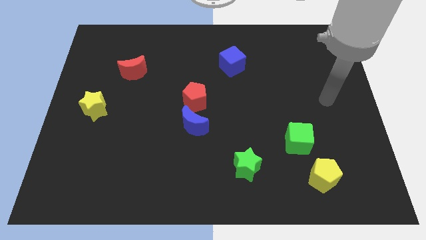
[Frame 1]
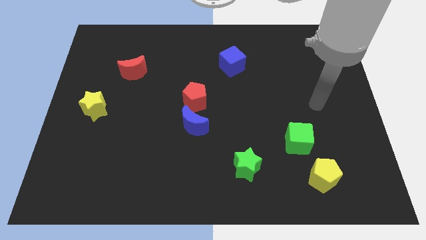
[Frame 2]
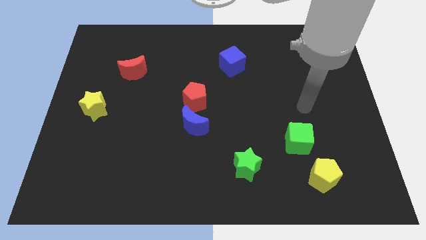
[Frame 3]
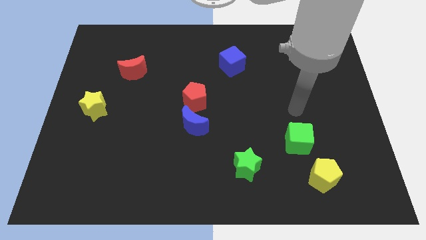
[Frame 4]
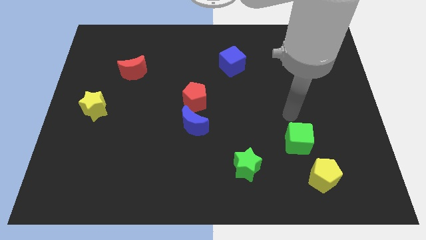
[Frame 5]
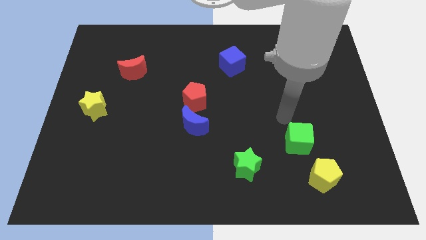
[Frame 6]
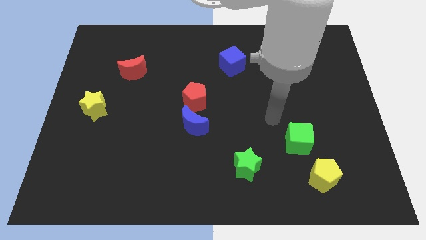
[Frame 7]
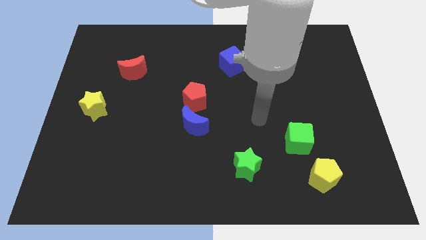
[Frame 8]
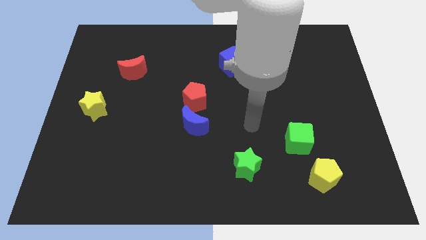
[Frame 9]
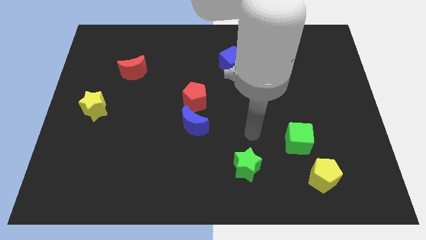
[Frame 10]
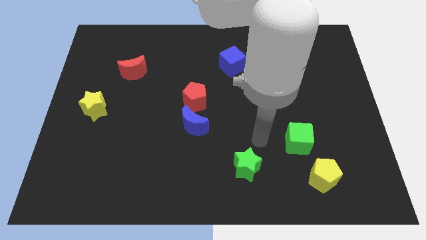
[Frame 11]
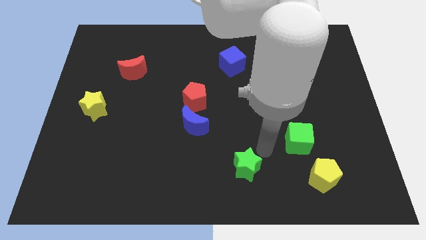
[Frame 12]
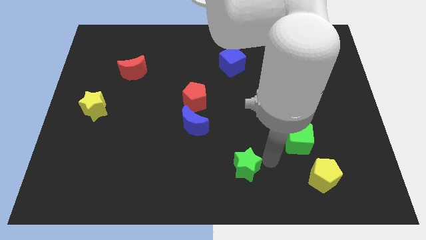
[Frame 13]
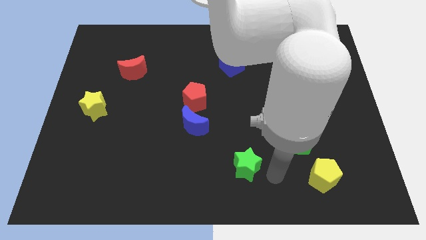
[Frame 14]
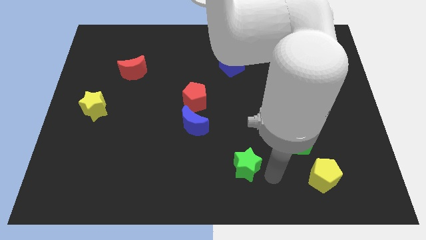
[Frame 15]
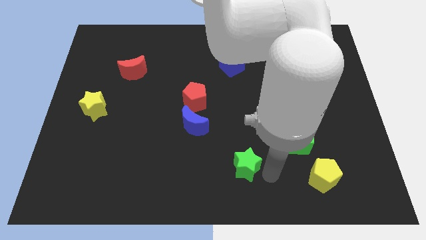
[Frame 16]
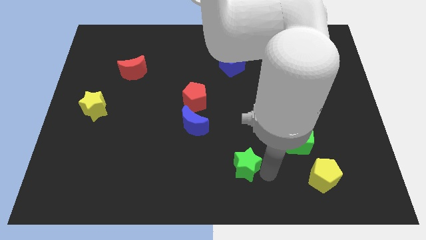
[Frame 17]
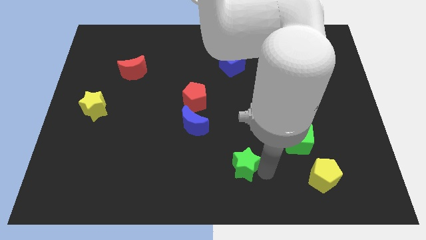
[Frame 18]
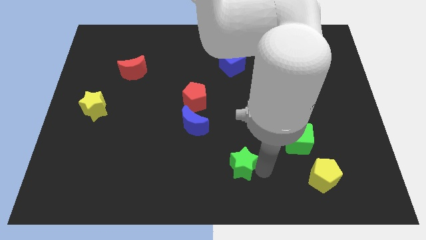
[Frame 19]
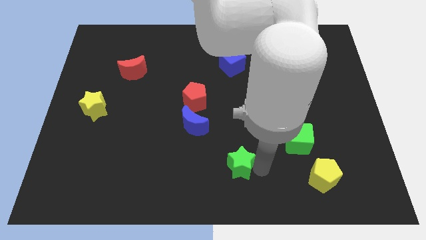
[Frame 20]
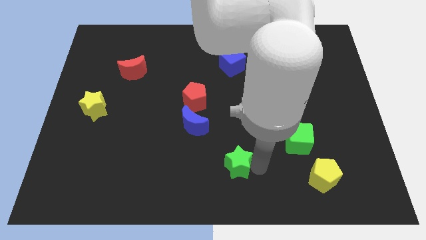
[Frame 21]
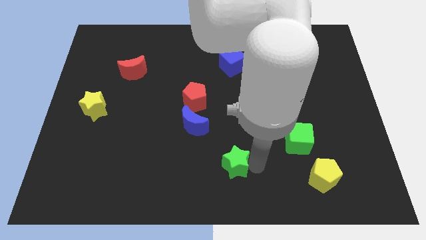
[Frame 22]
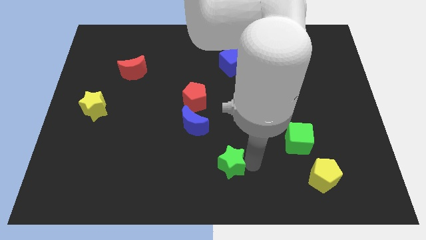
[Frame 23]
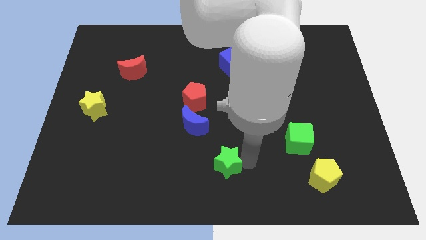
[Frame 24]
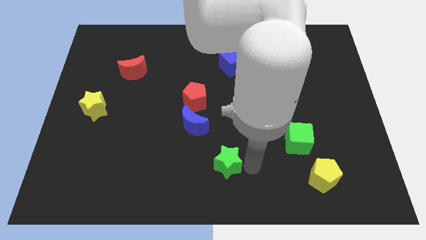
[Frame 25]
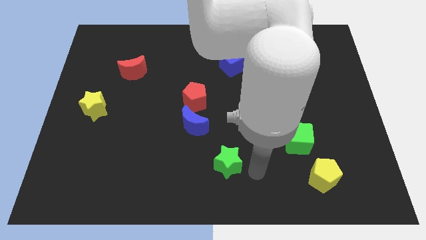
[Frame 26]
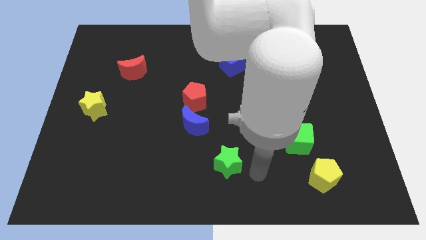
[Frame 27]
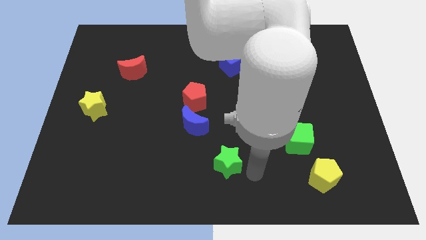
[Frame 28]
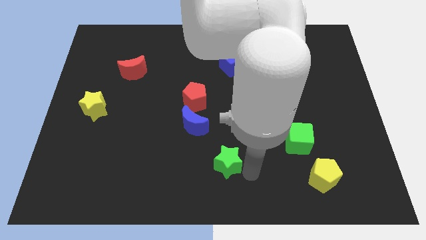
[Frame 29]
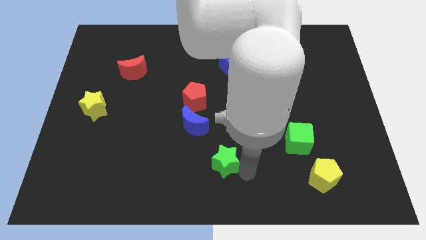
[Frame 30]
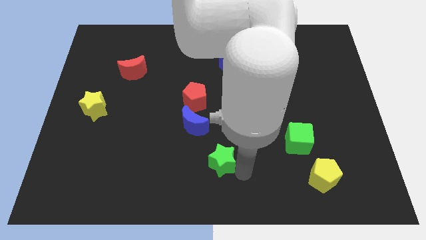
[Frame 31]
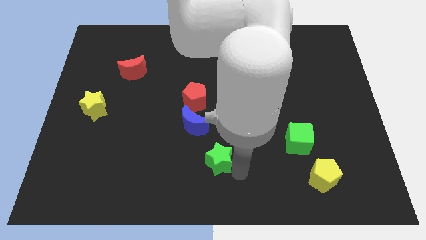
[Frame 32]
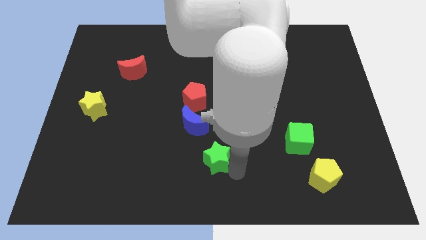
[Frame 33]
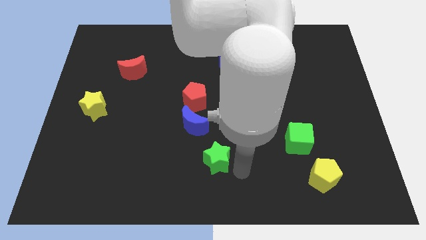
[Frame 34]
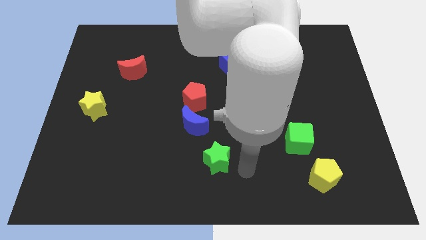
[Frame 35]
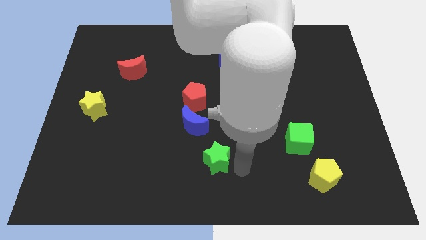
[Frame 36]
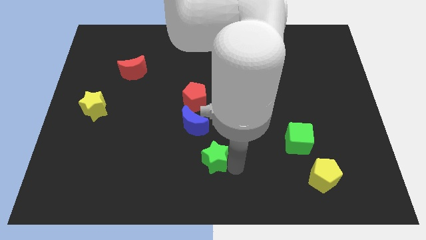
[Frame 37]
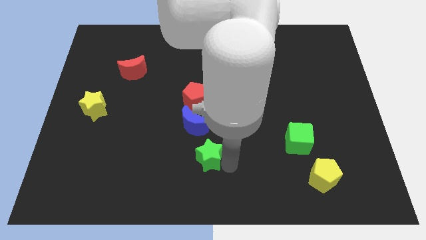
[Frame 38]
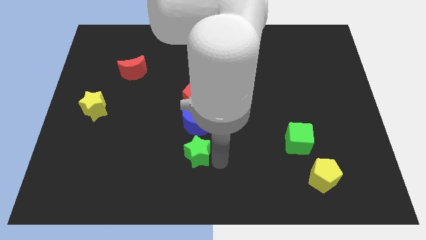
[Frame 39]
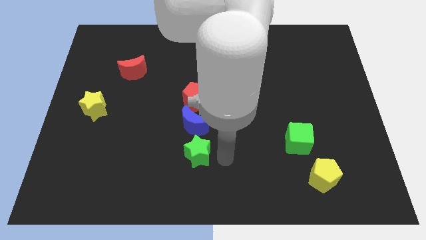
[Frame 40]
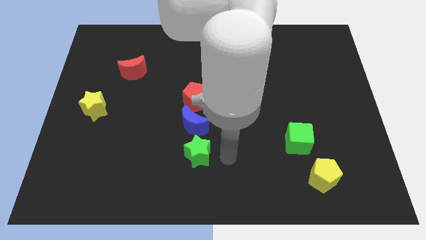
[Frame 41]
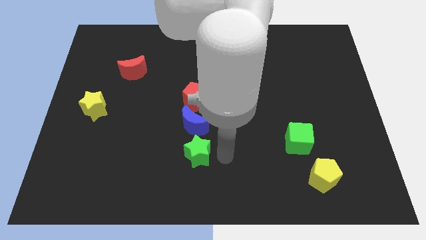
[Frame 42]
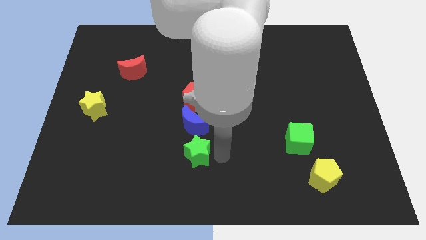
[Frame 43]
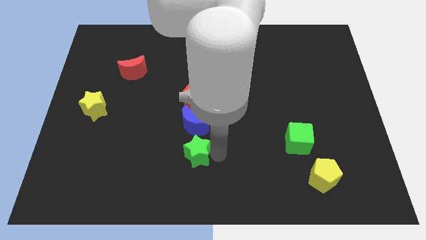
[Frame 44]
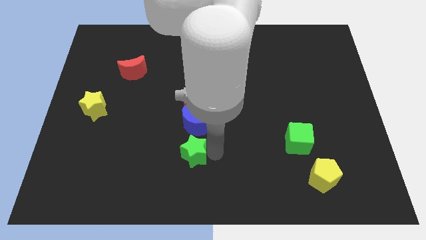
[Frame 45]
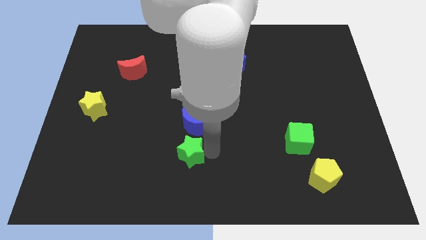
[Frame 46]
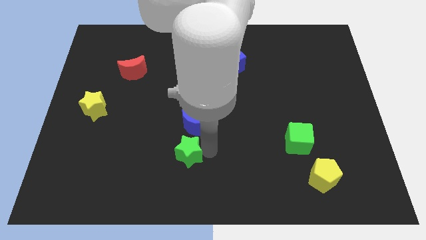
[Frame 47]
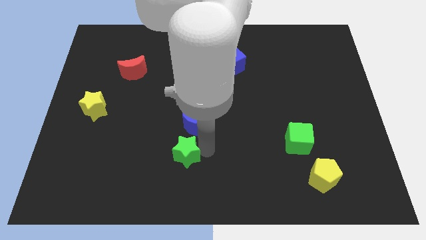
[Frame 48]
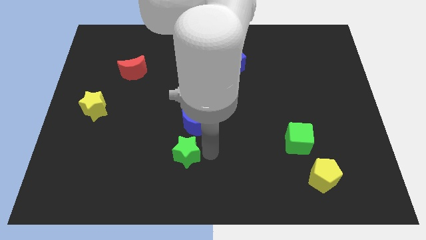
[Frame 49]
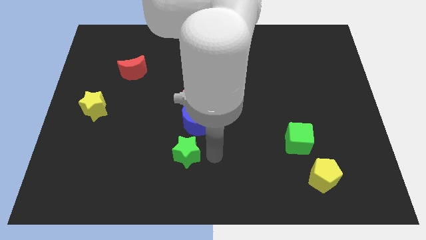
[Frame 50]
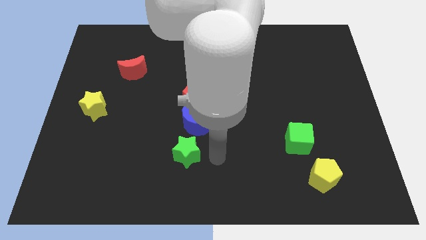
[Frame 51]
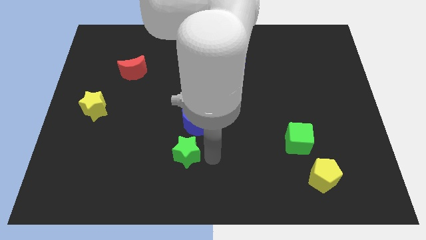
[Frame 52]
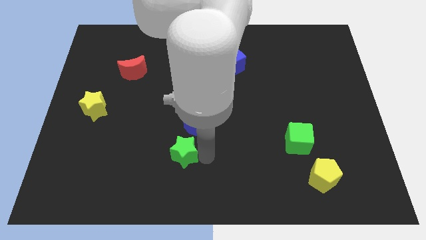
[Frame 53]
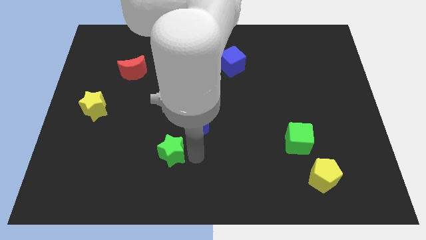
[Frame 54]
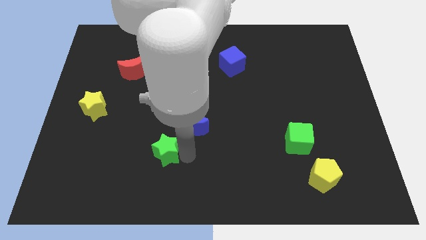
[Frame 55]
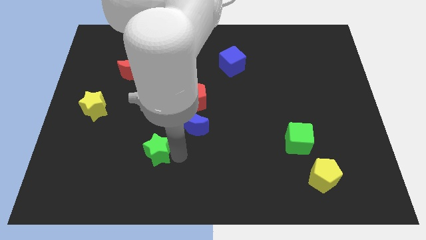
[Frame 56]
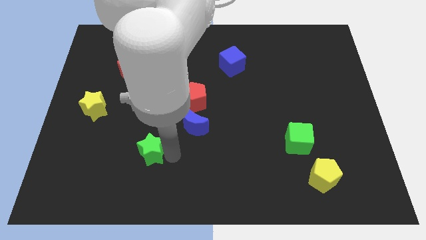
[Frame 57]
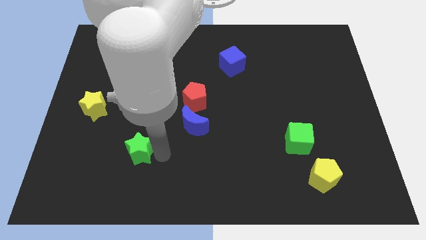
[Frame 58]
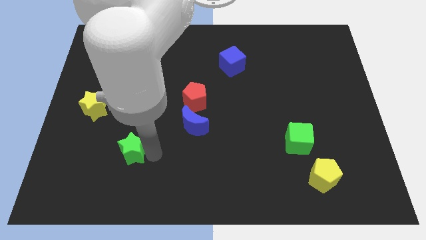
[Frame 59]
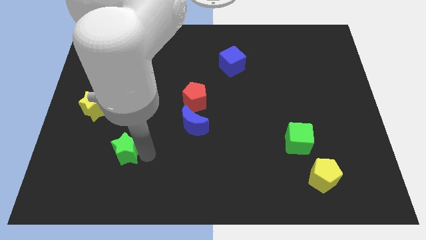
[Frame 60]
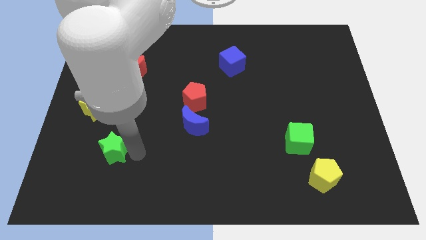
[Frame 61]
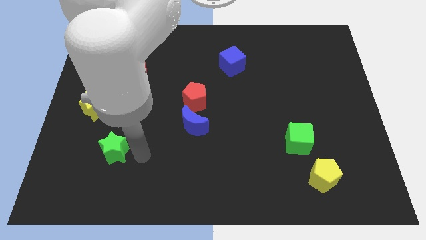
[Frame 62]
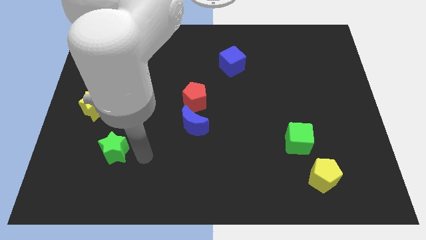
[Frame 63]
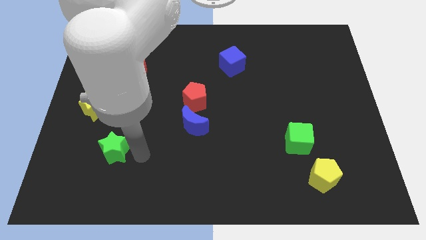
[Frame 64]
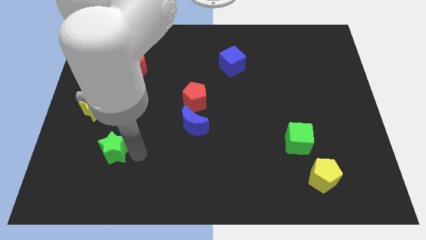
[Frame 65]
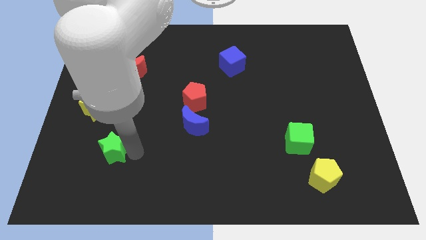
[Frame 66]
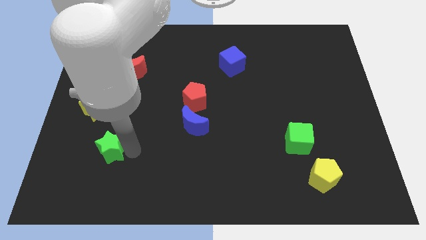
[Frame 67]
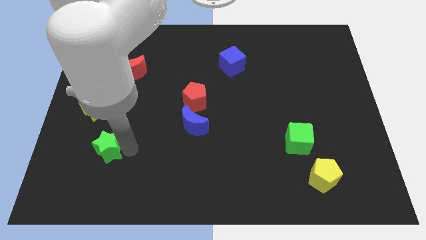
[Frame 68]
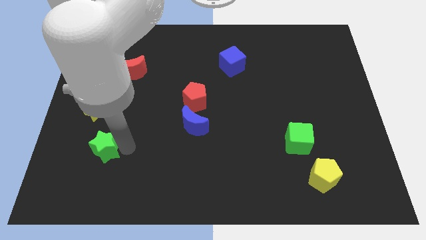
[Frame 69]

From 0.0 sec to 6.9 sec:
put the green star to the bottom of the yellow star

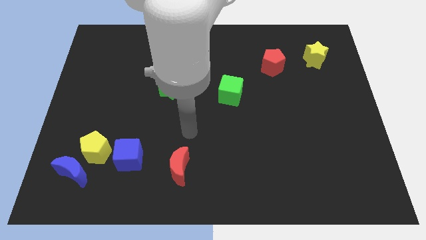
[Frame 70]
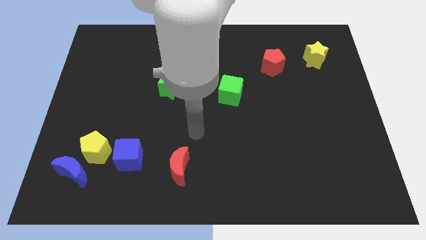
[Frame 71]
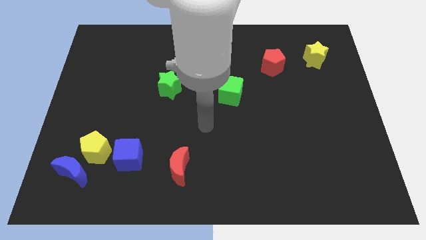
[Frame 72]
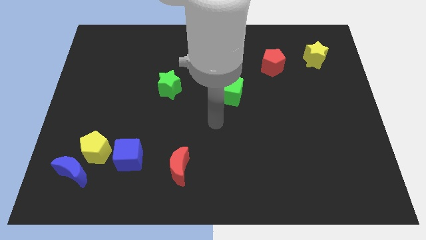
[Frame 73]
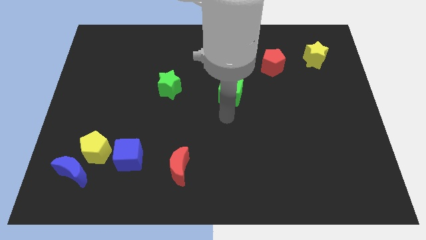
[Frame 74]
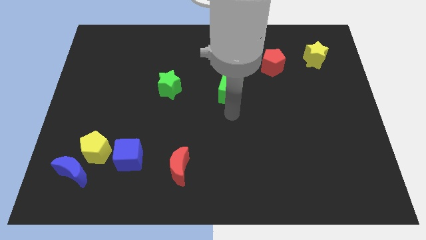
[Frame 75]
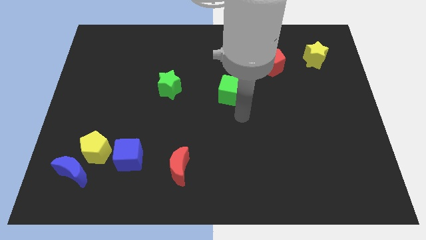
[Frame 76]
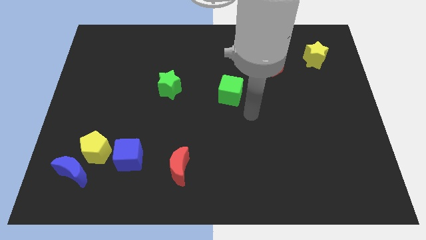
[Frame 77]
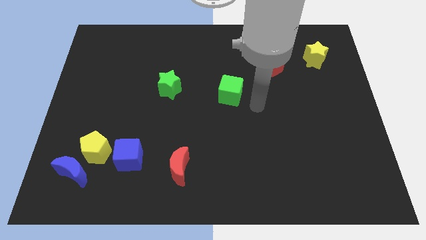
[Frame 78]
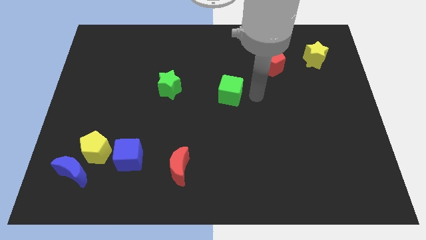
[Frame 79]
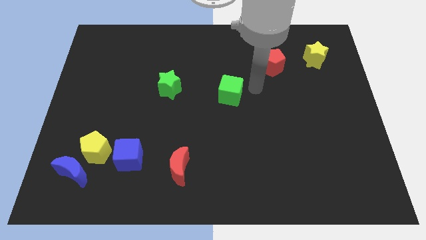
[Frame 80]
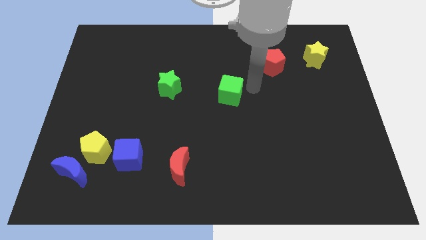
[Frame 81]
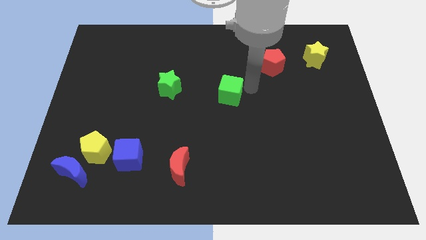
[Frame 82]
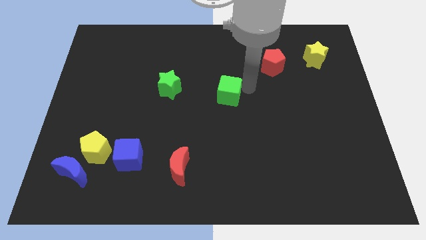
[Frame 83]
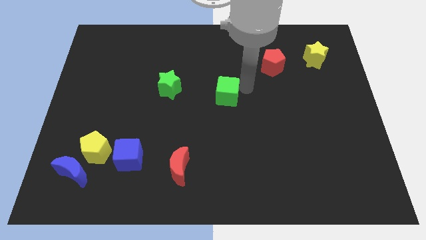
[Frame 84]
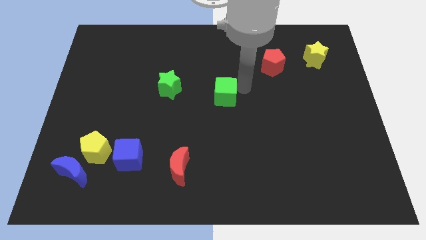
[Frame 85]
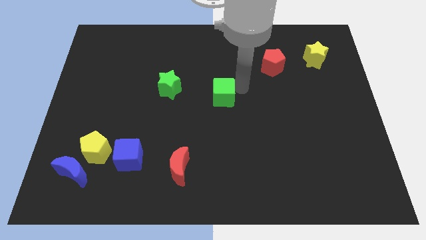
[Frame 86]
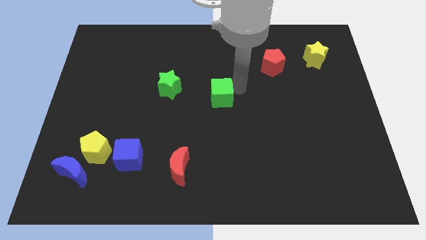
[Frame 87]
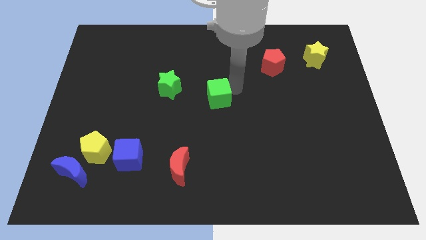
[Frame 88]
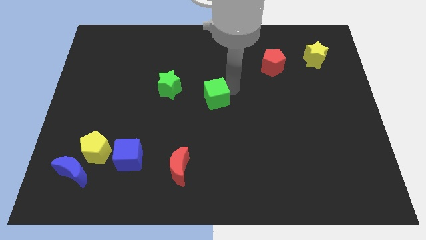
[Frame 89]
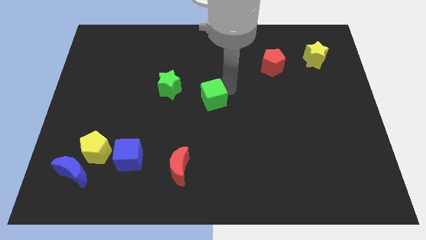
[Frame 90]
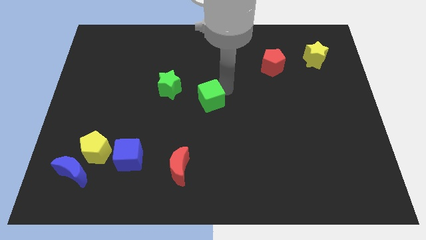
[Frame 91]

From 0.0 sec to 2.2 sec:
slide the green cube to the bottom right of the green star
